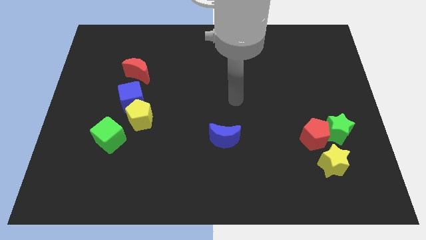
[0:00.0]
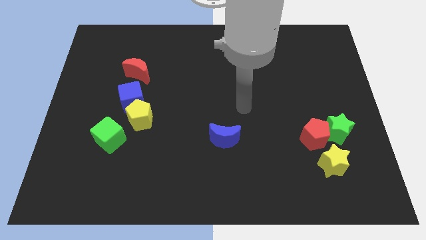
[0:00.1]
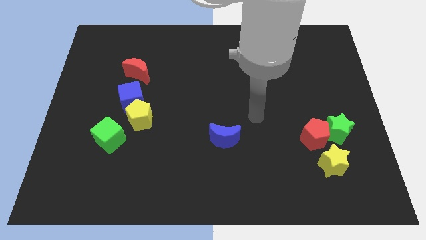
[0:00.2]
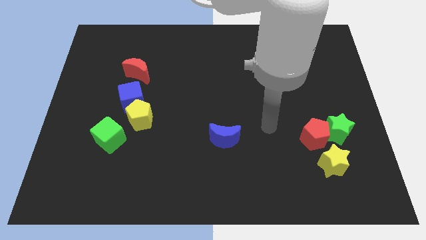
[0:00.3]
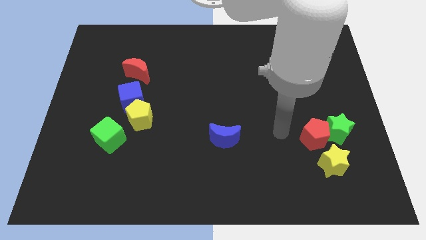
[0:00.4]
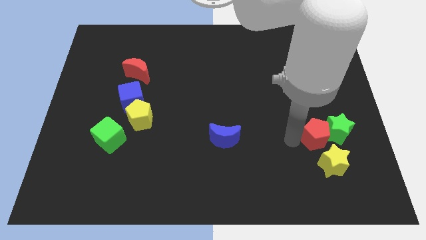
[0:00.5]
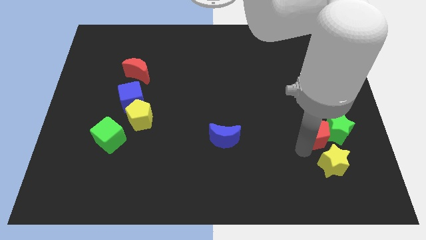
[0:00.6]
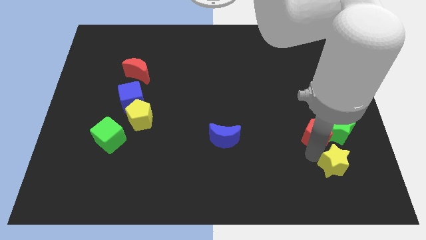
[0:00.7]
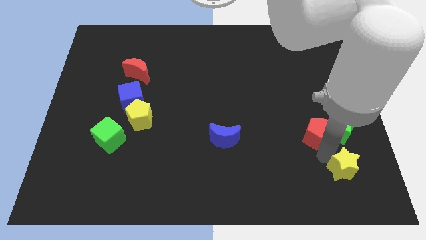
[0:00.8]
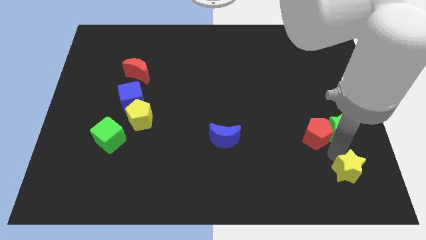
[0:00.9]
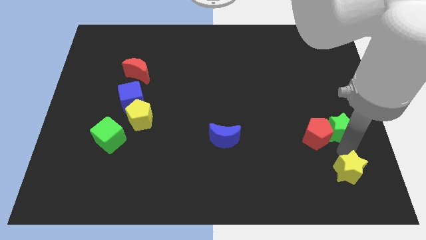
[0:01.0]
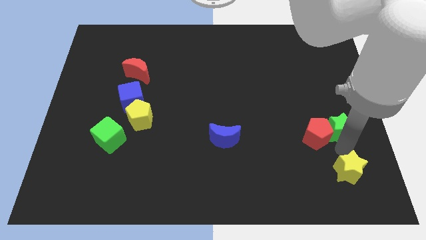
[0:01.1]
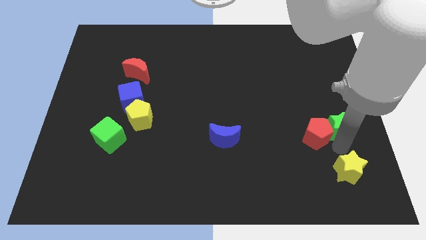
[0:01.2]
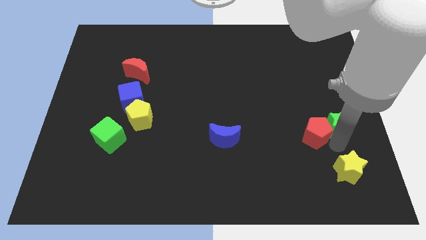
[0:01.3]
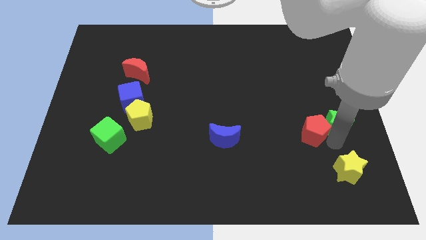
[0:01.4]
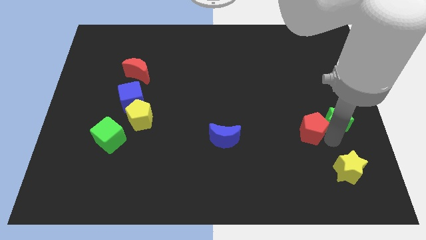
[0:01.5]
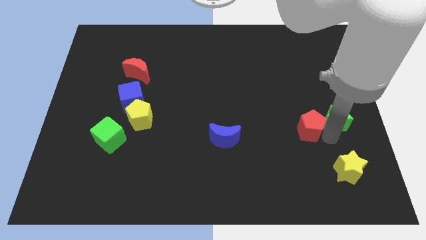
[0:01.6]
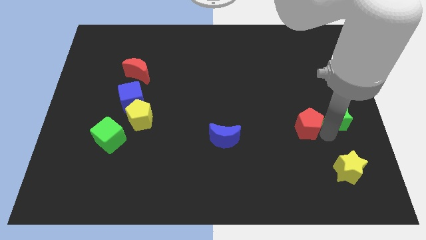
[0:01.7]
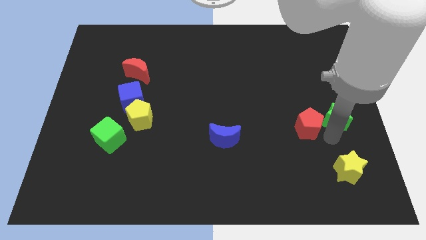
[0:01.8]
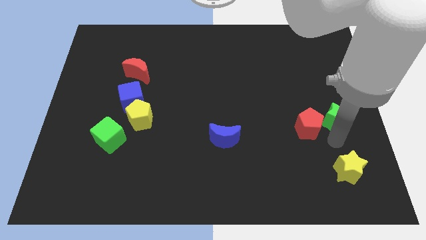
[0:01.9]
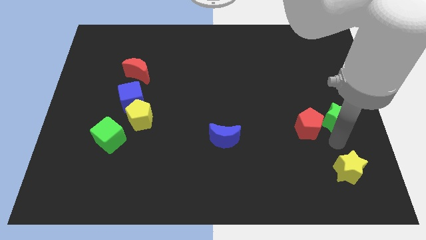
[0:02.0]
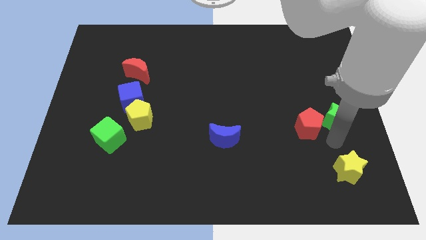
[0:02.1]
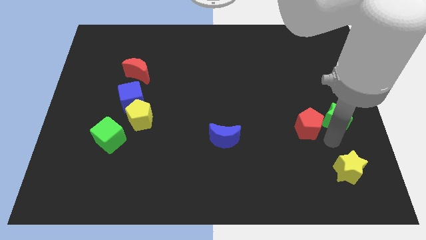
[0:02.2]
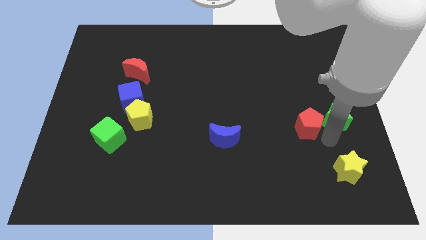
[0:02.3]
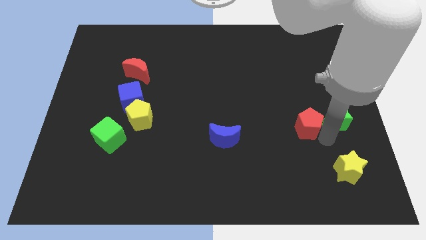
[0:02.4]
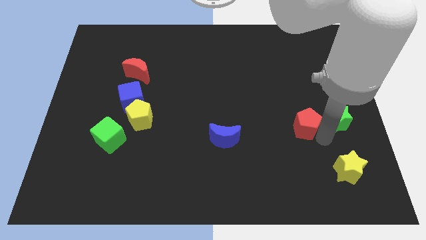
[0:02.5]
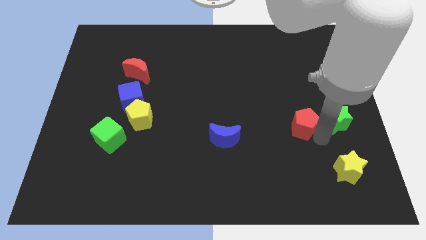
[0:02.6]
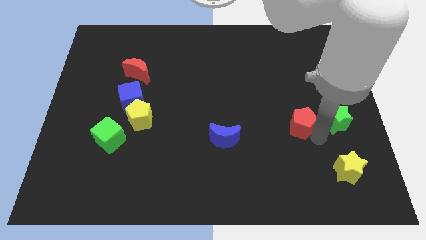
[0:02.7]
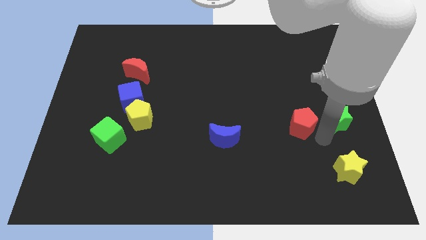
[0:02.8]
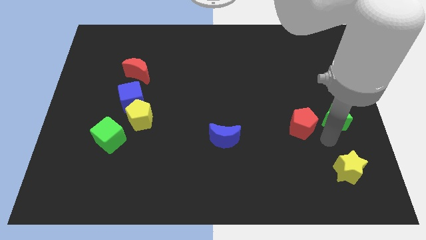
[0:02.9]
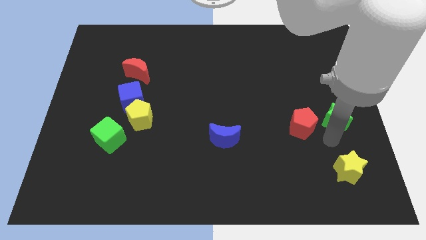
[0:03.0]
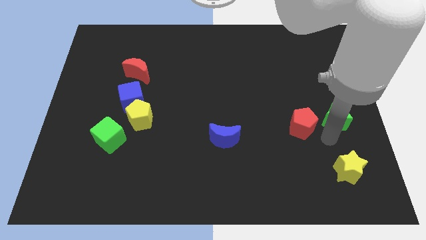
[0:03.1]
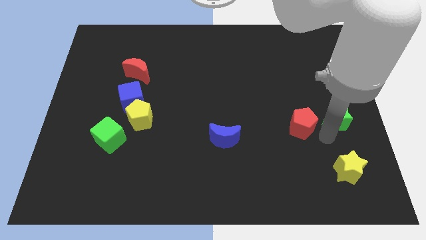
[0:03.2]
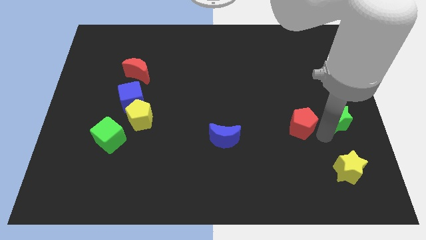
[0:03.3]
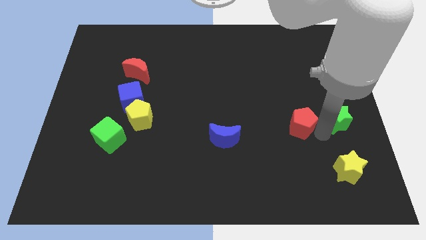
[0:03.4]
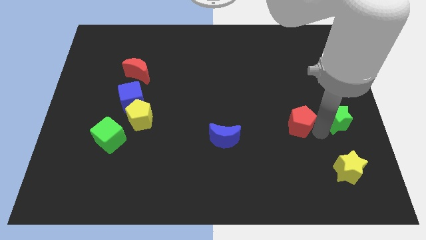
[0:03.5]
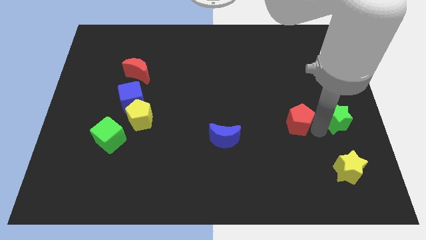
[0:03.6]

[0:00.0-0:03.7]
pull the red pentagon apart from the green star and yellow star

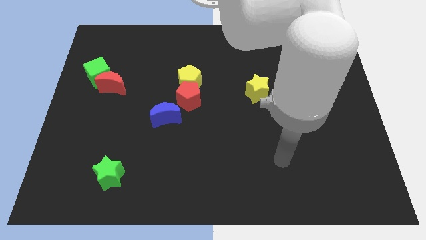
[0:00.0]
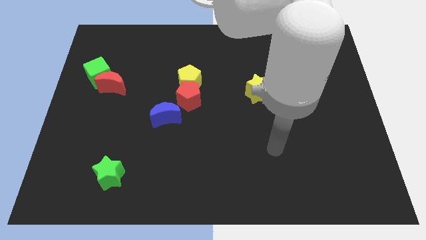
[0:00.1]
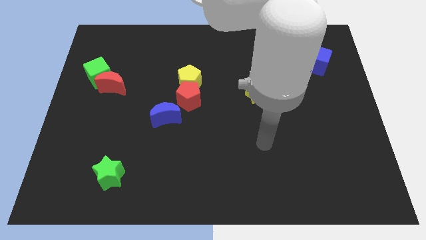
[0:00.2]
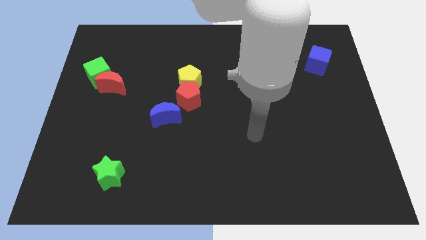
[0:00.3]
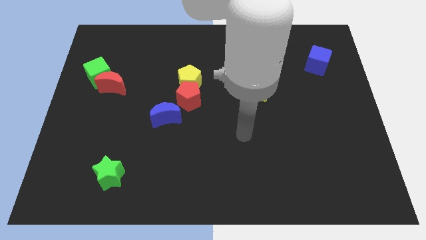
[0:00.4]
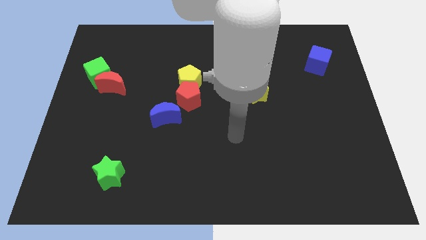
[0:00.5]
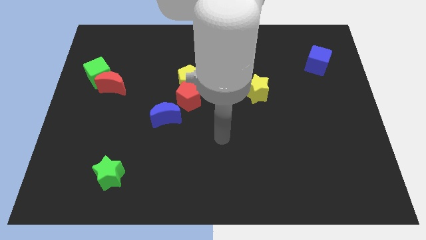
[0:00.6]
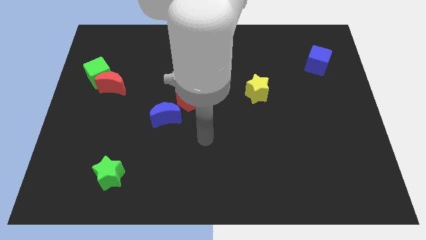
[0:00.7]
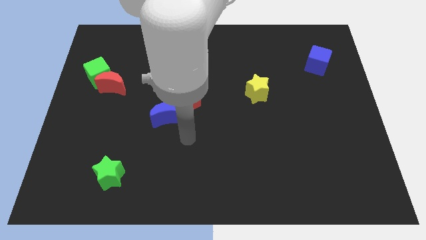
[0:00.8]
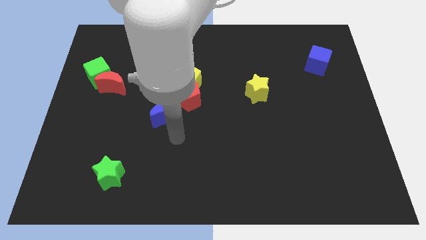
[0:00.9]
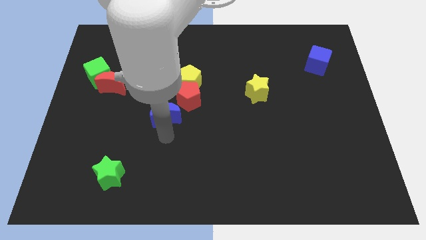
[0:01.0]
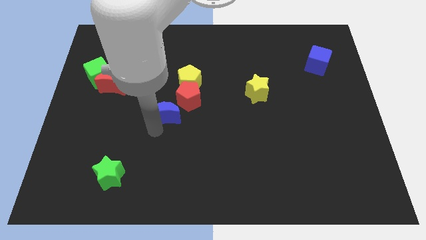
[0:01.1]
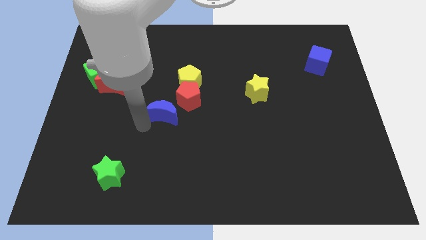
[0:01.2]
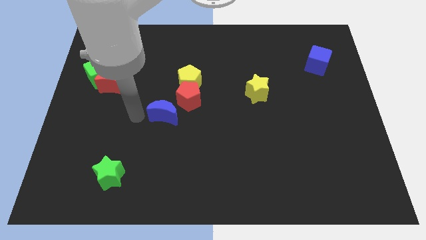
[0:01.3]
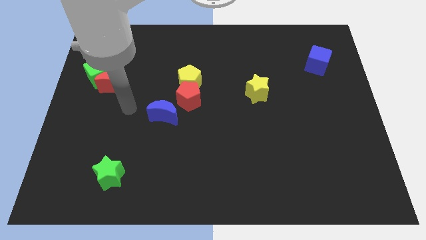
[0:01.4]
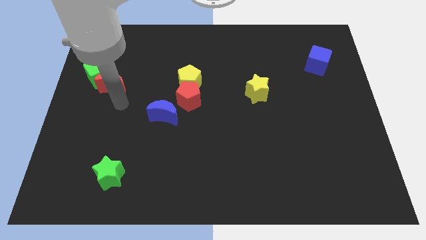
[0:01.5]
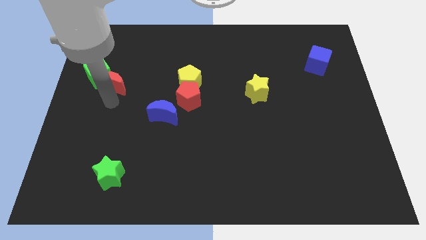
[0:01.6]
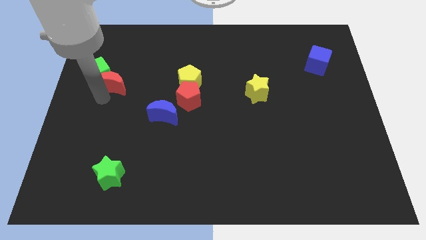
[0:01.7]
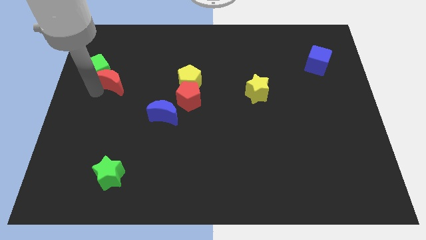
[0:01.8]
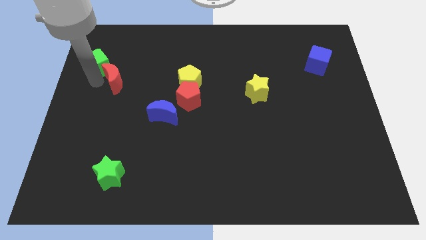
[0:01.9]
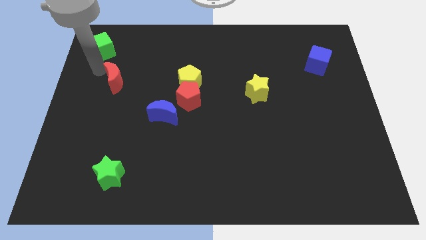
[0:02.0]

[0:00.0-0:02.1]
move the red moon away from the green cube

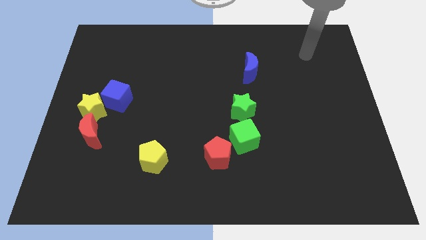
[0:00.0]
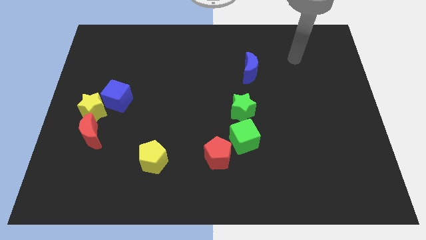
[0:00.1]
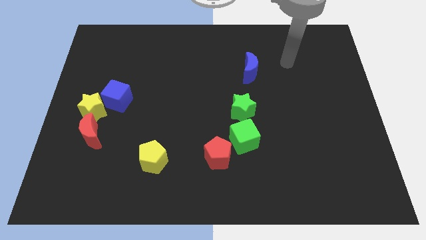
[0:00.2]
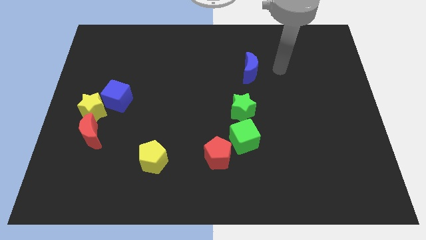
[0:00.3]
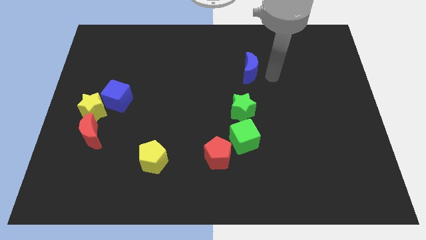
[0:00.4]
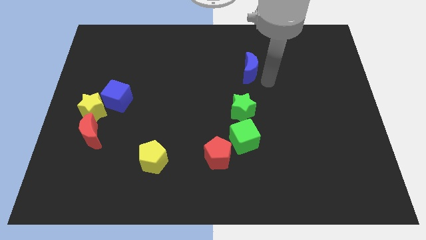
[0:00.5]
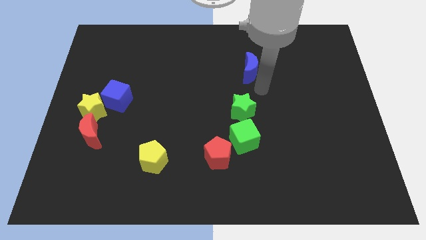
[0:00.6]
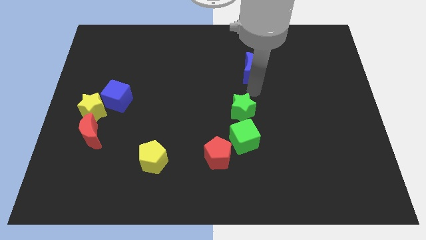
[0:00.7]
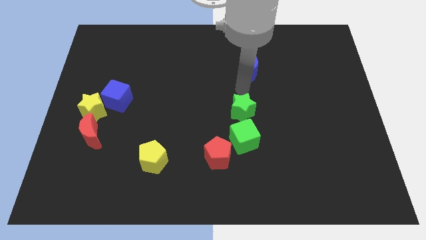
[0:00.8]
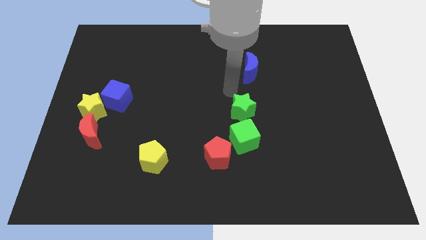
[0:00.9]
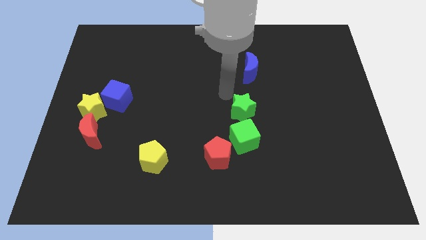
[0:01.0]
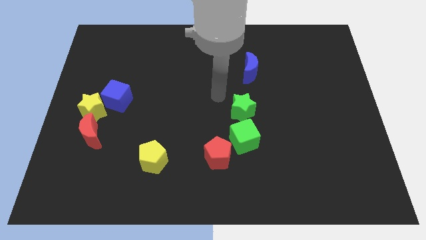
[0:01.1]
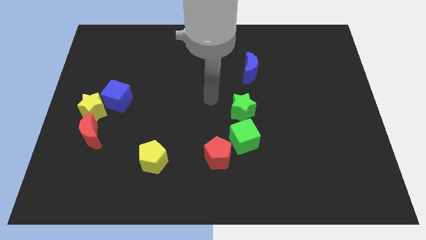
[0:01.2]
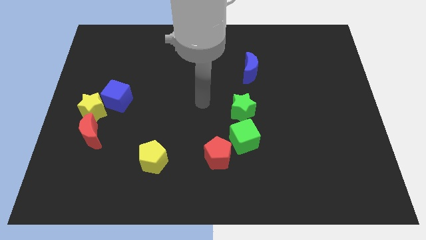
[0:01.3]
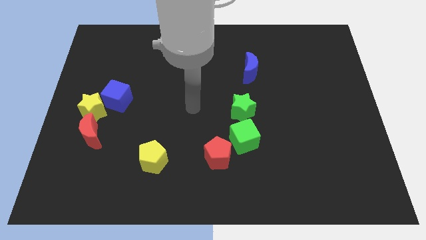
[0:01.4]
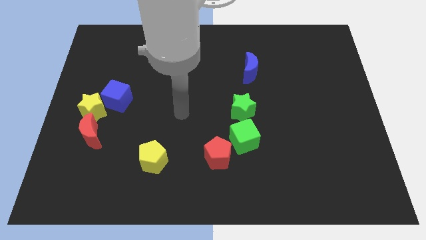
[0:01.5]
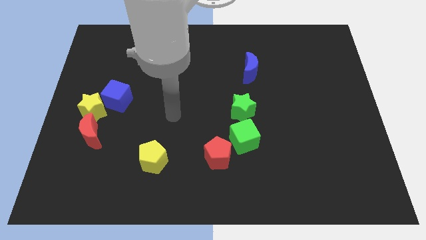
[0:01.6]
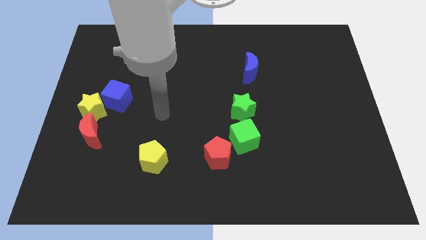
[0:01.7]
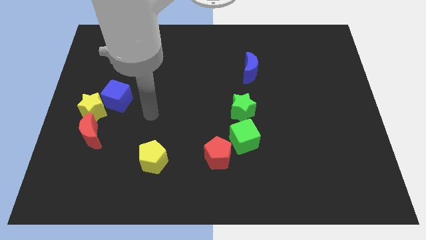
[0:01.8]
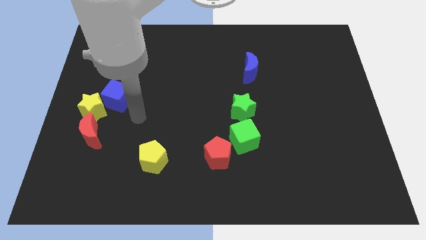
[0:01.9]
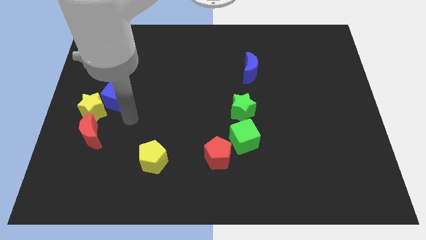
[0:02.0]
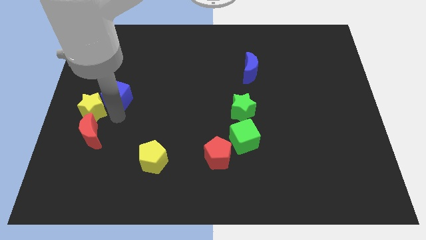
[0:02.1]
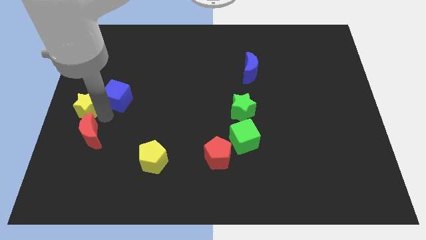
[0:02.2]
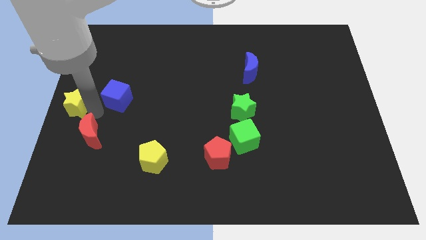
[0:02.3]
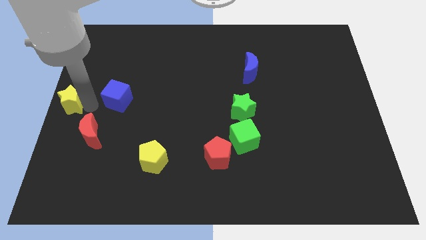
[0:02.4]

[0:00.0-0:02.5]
pull the blue cube apart from the yellow star

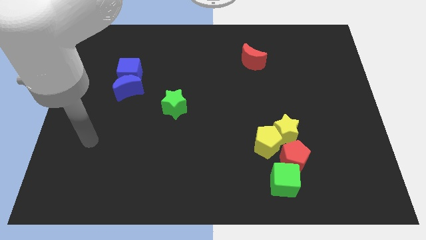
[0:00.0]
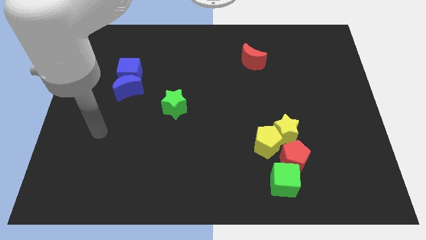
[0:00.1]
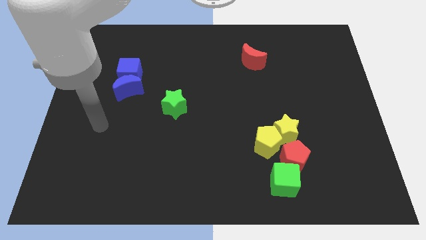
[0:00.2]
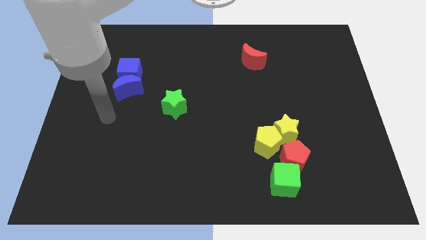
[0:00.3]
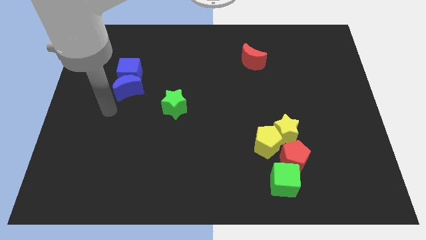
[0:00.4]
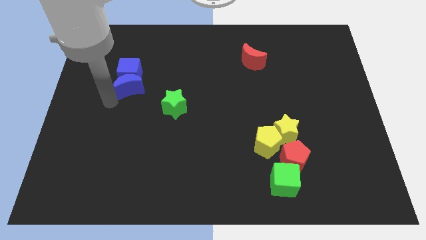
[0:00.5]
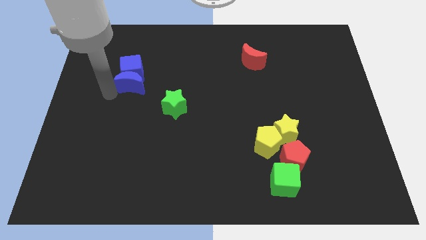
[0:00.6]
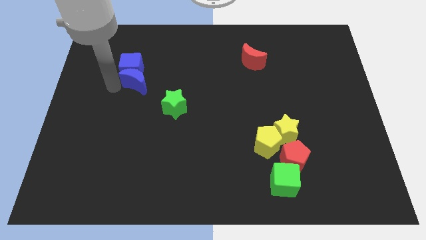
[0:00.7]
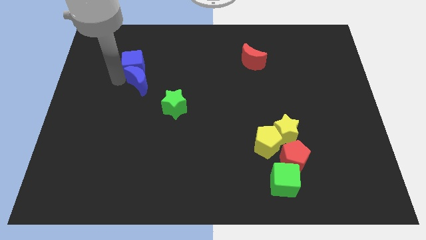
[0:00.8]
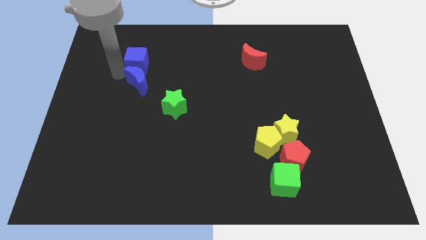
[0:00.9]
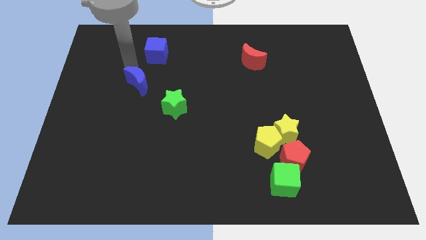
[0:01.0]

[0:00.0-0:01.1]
separate the blue moon from the blue cube
